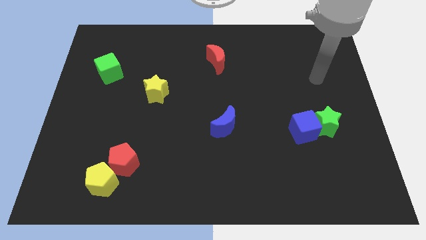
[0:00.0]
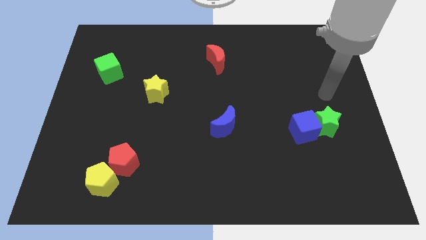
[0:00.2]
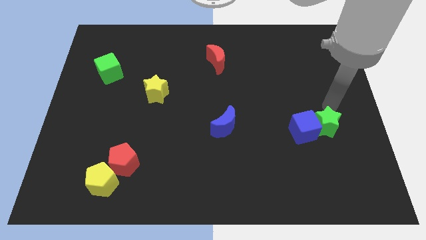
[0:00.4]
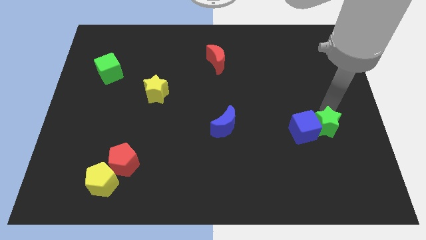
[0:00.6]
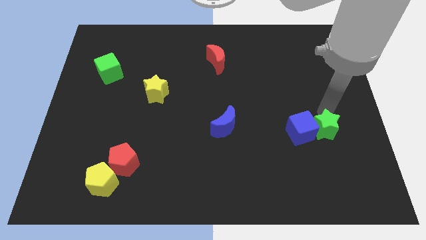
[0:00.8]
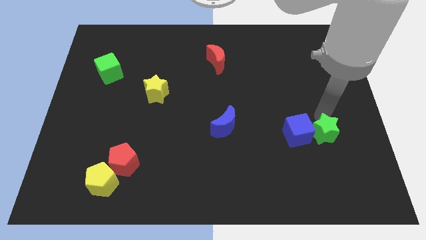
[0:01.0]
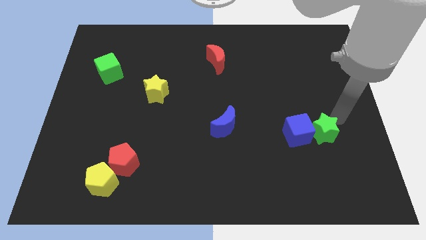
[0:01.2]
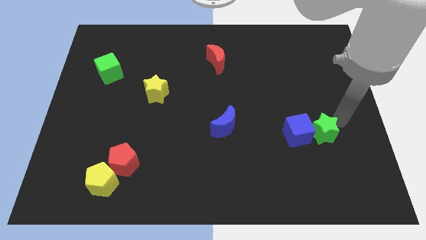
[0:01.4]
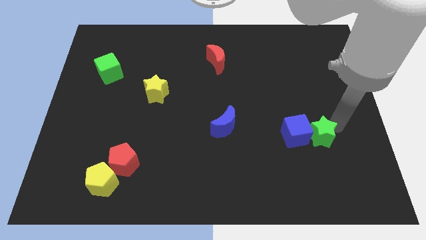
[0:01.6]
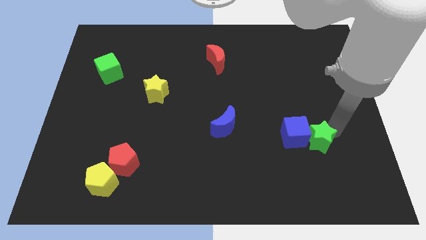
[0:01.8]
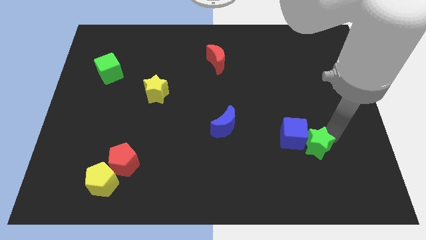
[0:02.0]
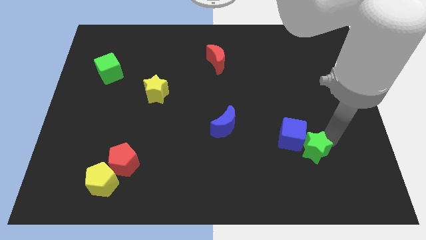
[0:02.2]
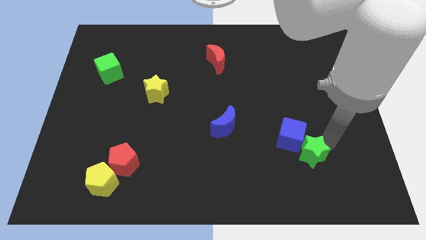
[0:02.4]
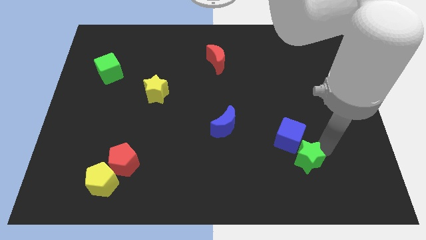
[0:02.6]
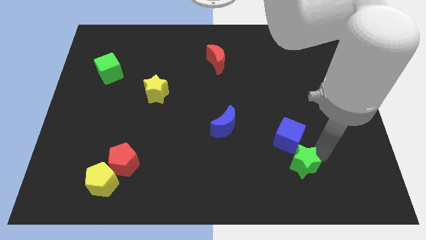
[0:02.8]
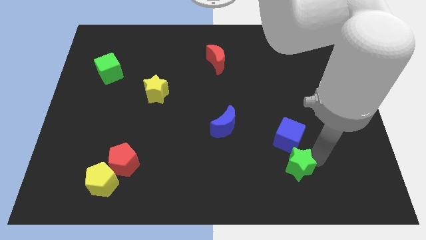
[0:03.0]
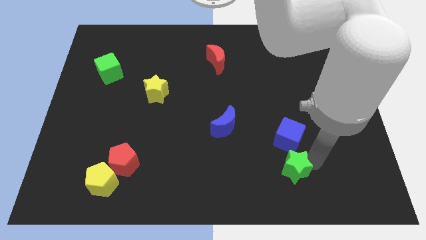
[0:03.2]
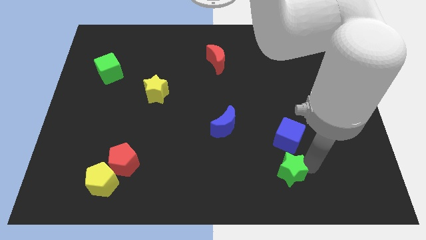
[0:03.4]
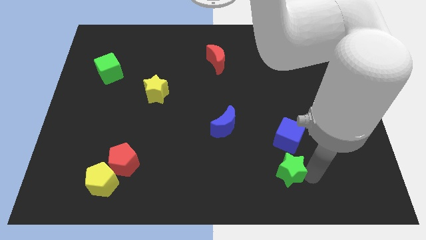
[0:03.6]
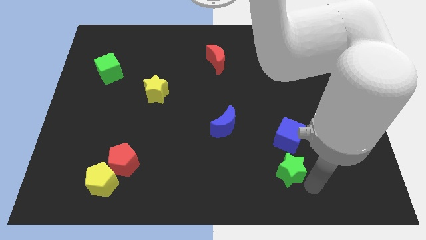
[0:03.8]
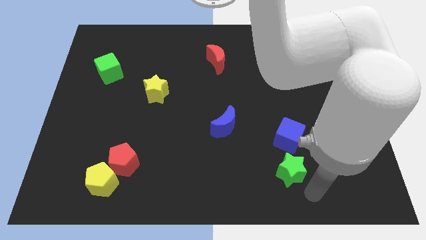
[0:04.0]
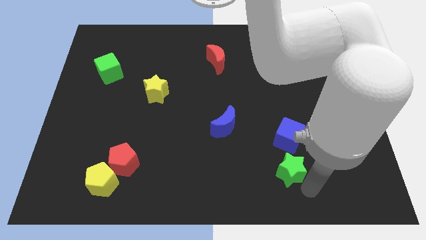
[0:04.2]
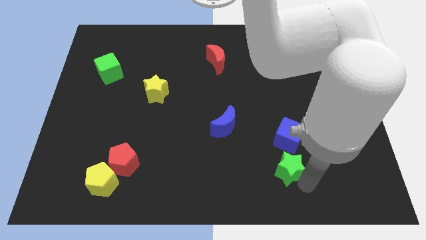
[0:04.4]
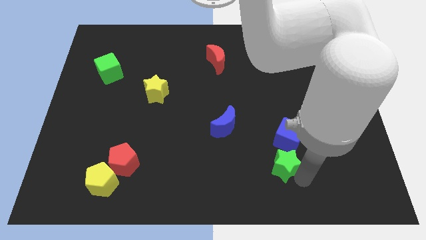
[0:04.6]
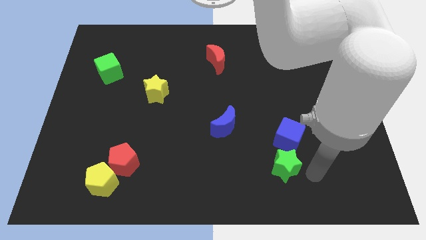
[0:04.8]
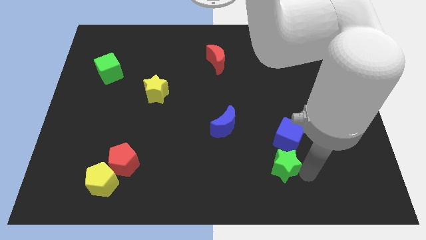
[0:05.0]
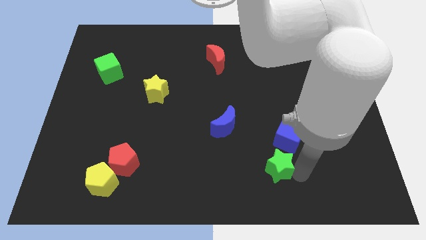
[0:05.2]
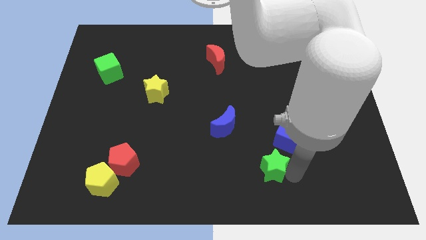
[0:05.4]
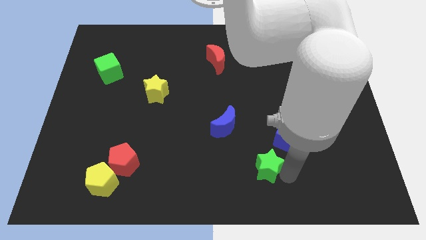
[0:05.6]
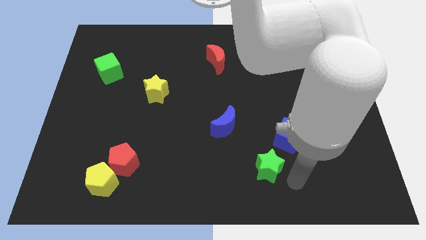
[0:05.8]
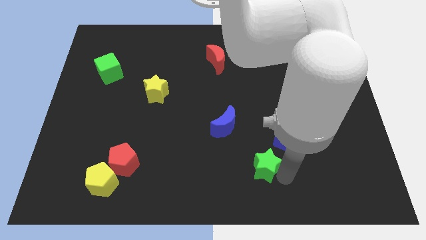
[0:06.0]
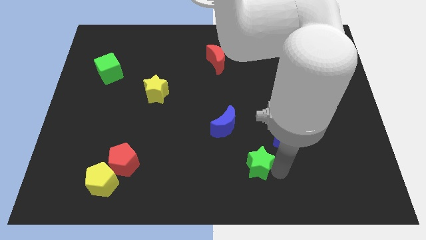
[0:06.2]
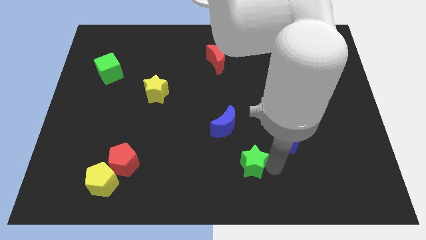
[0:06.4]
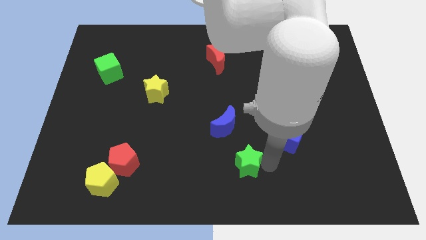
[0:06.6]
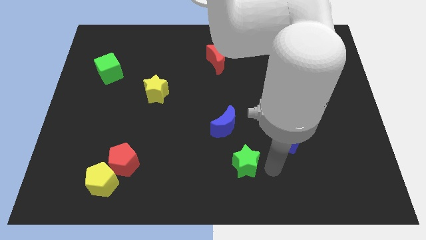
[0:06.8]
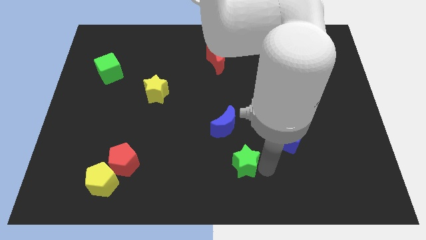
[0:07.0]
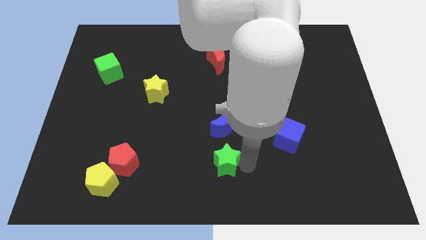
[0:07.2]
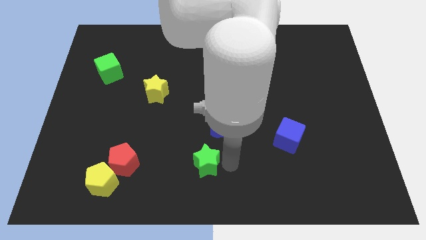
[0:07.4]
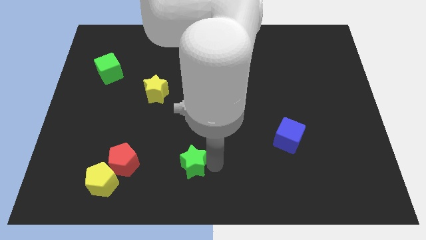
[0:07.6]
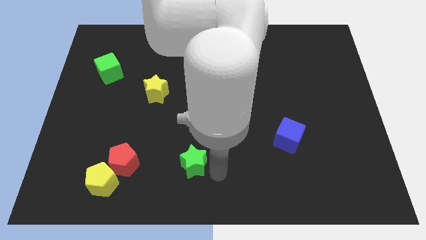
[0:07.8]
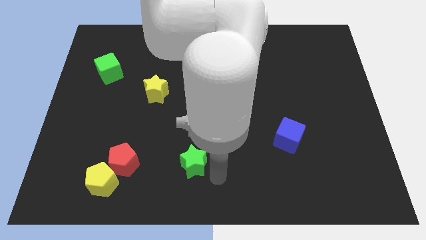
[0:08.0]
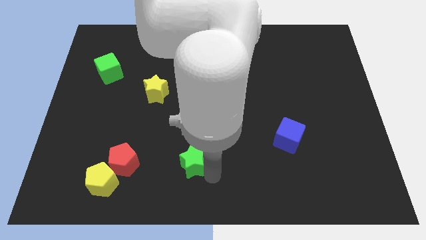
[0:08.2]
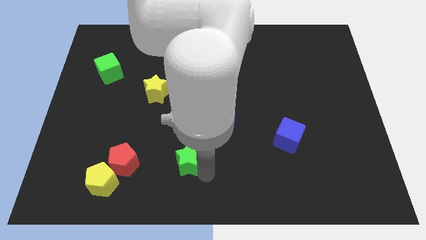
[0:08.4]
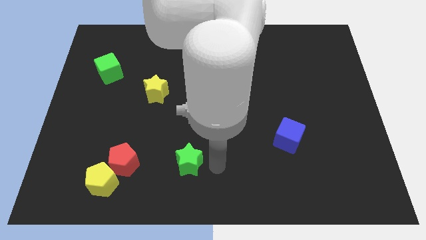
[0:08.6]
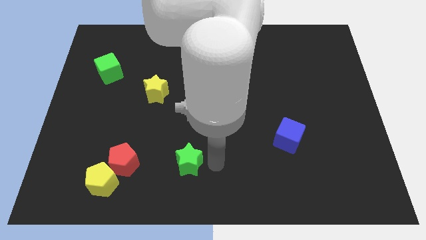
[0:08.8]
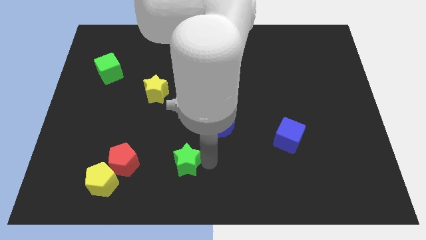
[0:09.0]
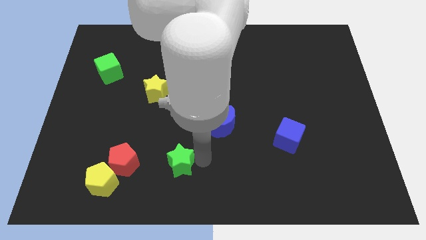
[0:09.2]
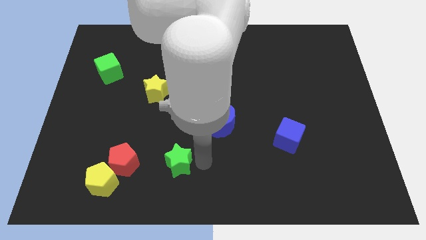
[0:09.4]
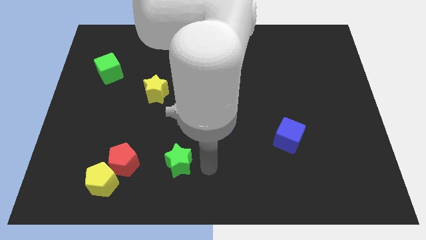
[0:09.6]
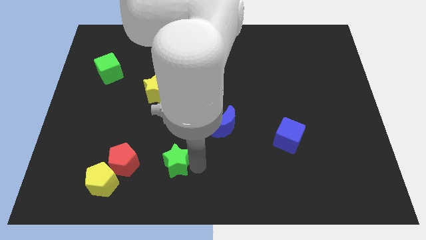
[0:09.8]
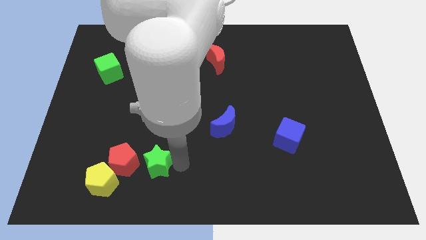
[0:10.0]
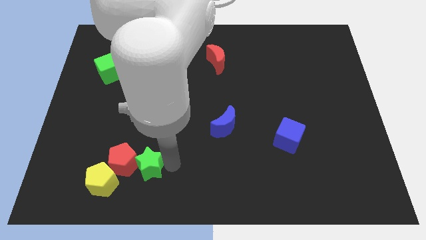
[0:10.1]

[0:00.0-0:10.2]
slide the green star towards the red pentagon

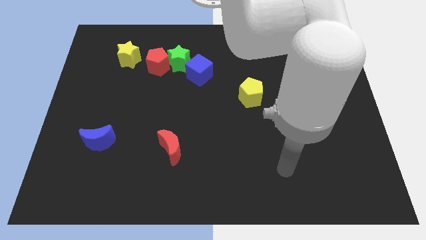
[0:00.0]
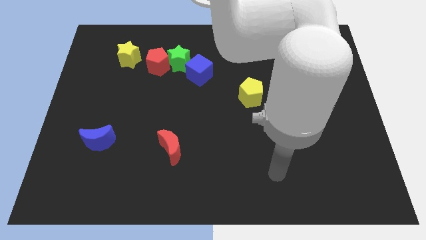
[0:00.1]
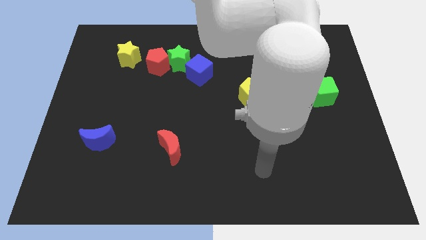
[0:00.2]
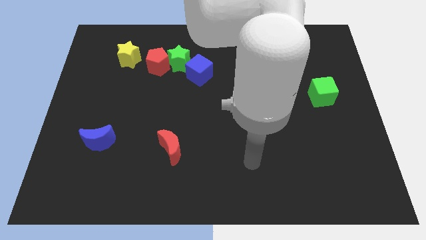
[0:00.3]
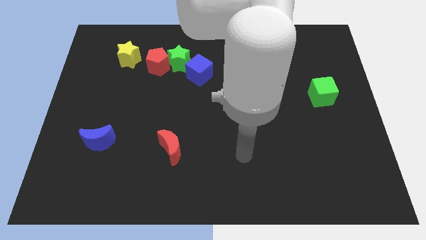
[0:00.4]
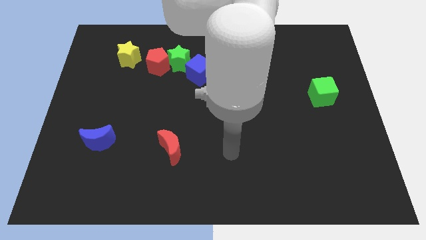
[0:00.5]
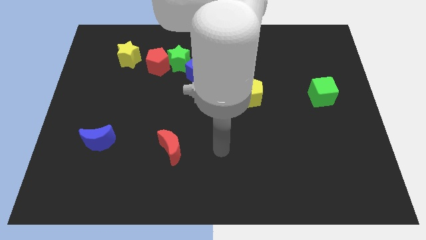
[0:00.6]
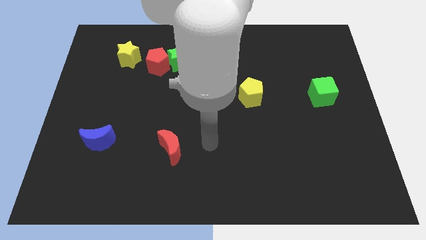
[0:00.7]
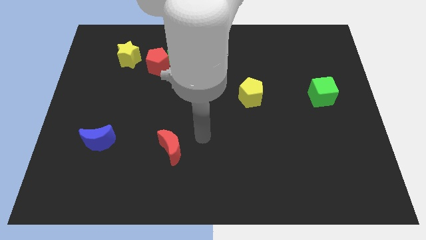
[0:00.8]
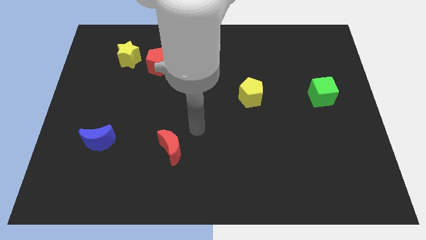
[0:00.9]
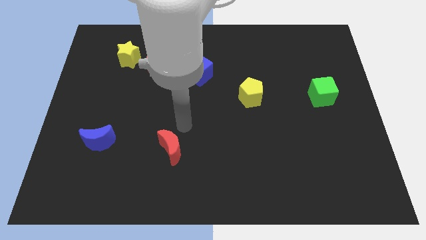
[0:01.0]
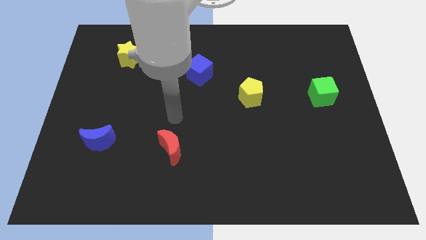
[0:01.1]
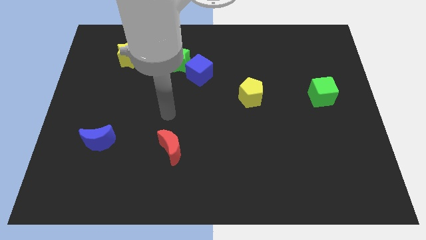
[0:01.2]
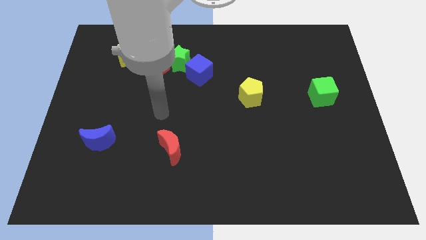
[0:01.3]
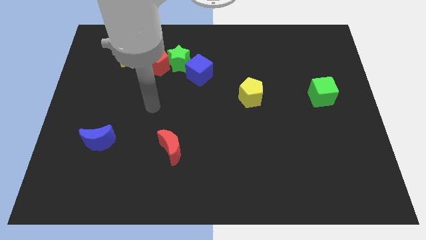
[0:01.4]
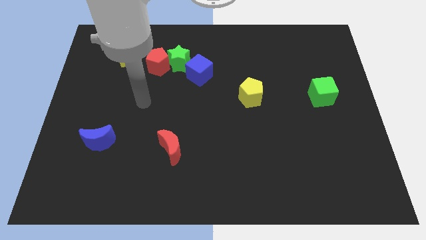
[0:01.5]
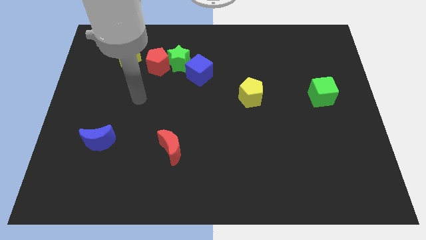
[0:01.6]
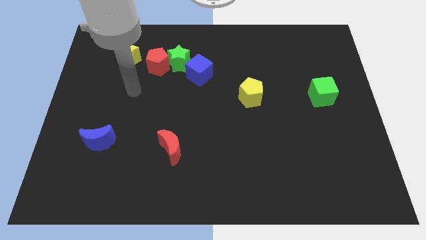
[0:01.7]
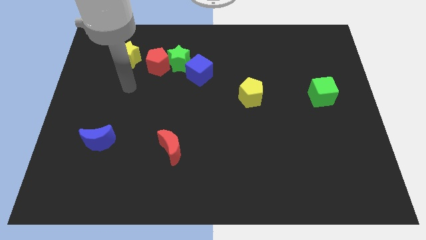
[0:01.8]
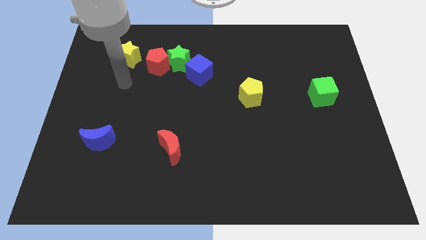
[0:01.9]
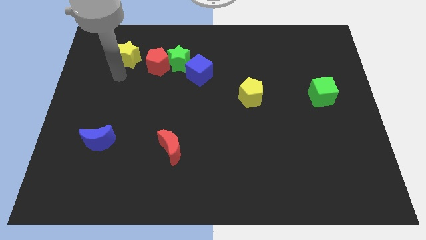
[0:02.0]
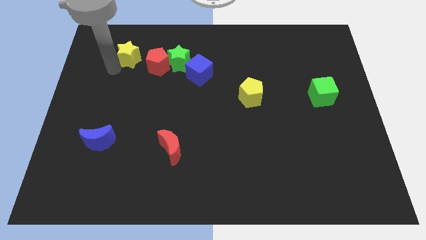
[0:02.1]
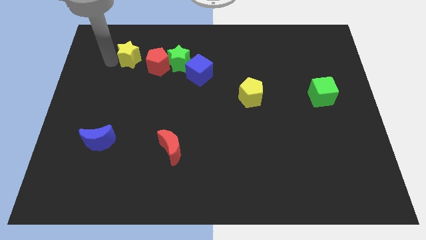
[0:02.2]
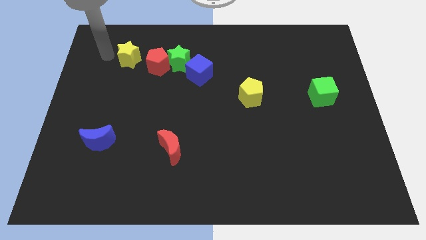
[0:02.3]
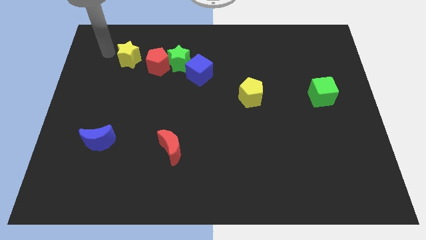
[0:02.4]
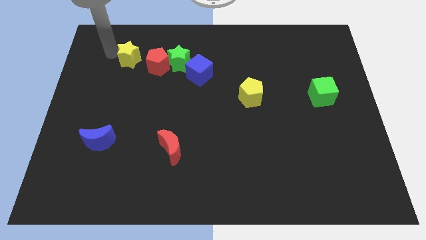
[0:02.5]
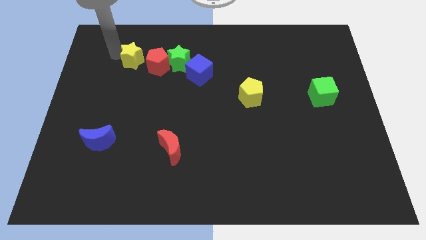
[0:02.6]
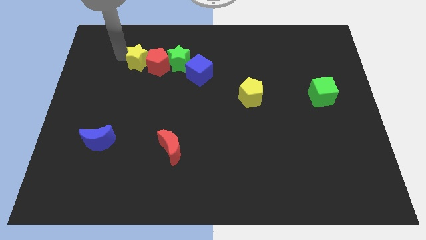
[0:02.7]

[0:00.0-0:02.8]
put the yellow star close to the red pentagon
